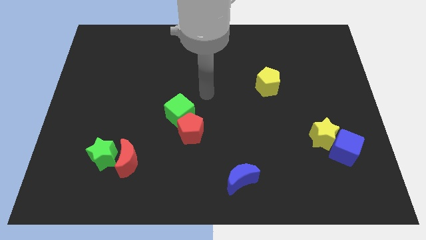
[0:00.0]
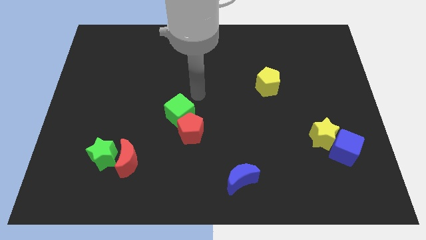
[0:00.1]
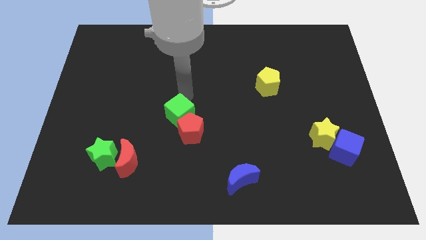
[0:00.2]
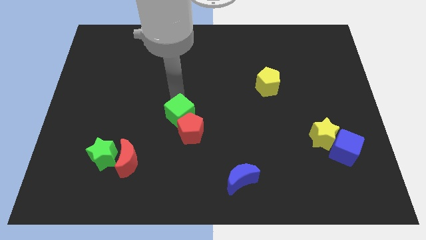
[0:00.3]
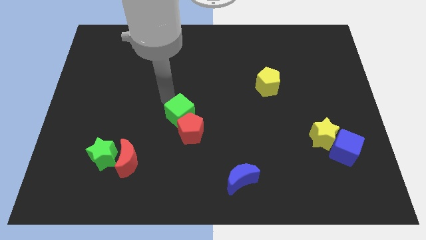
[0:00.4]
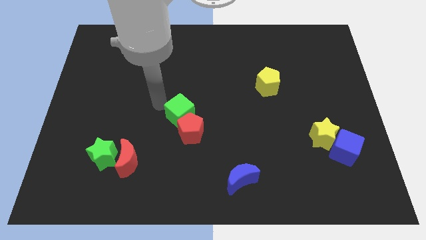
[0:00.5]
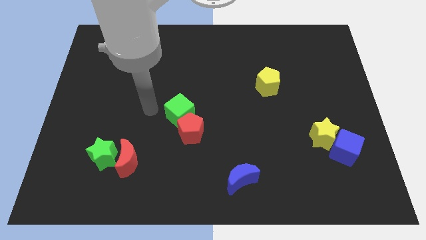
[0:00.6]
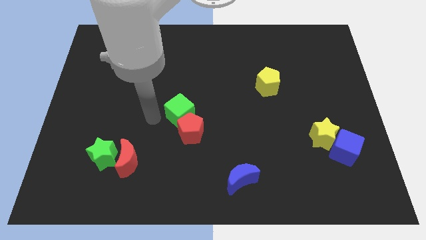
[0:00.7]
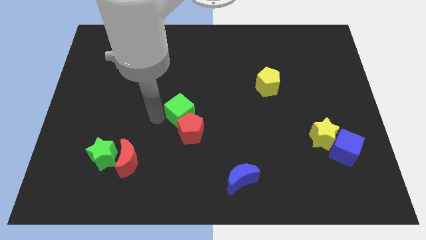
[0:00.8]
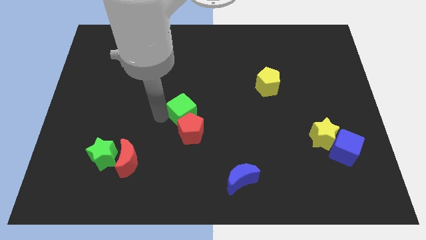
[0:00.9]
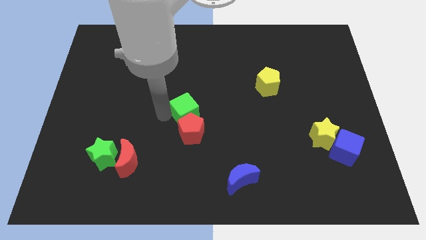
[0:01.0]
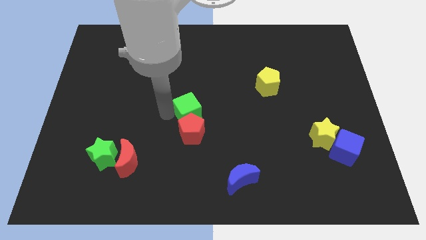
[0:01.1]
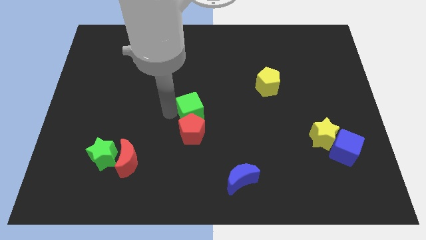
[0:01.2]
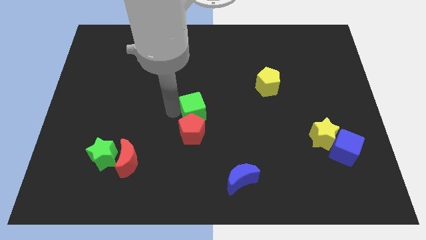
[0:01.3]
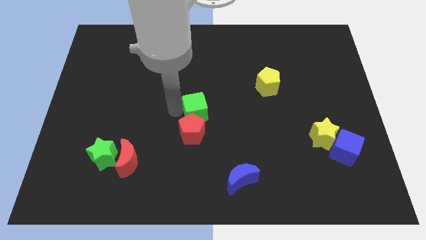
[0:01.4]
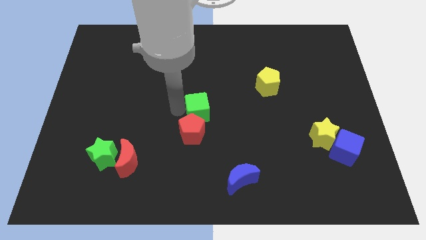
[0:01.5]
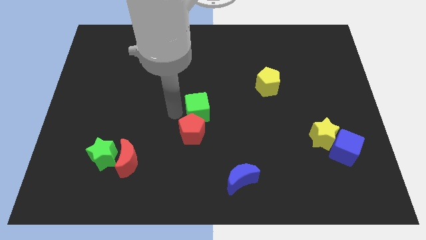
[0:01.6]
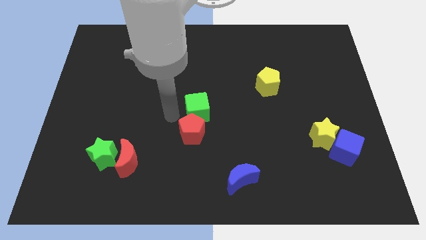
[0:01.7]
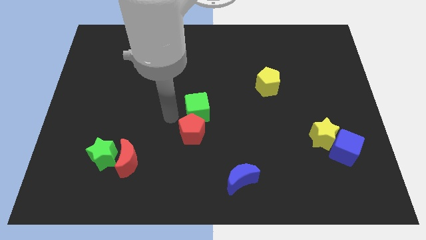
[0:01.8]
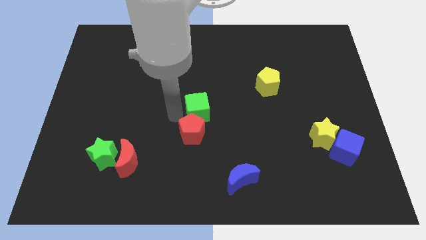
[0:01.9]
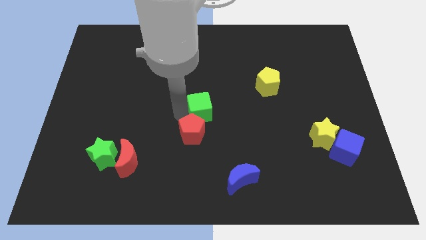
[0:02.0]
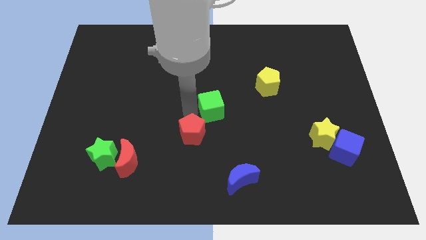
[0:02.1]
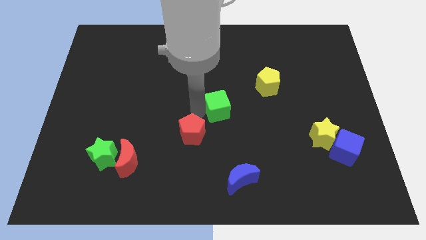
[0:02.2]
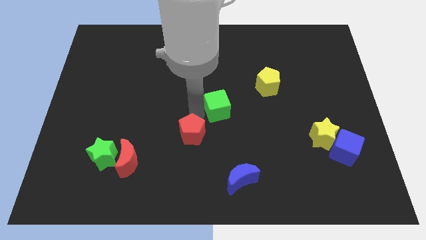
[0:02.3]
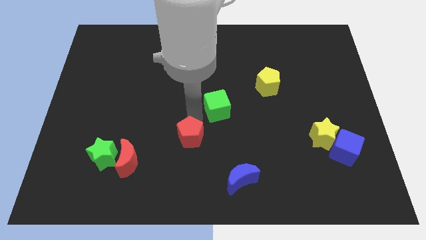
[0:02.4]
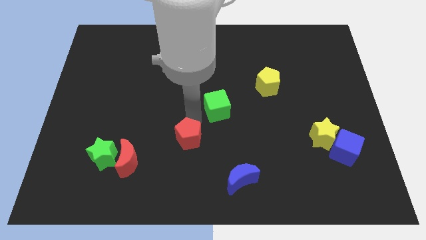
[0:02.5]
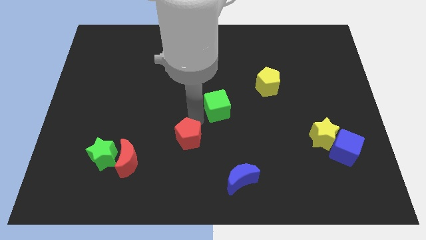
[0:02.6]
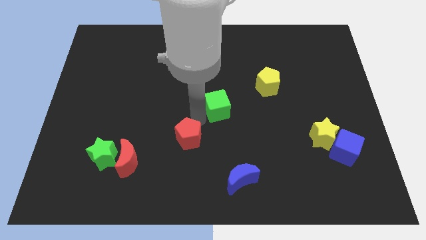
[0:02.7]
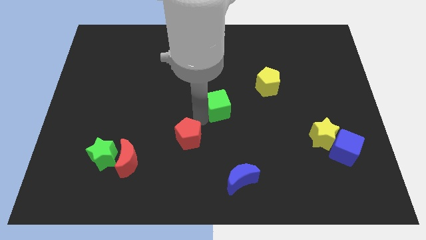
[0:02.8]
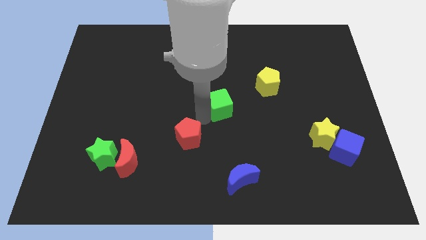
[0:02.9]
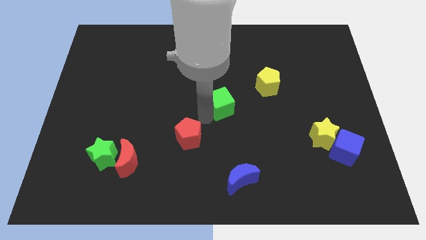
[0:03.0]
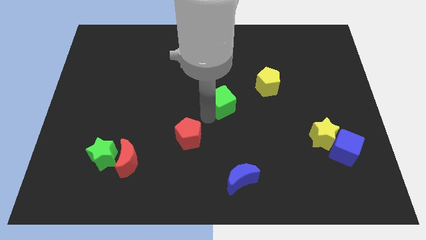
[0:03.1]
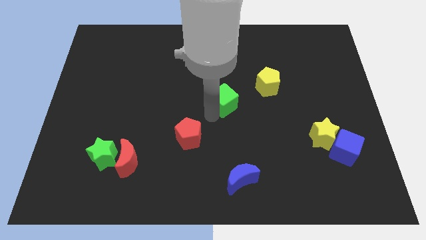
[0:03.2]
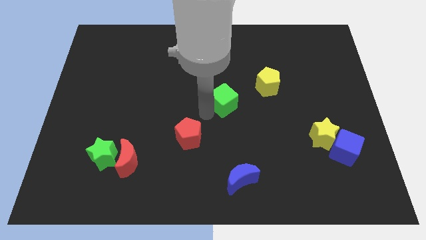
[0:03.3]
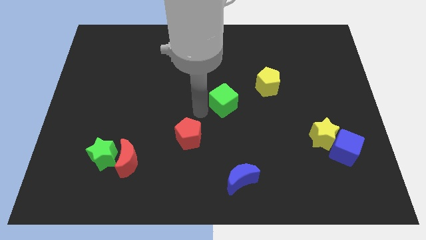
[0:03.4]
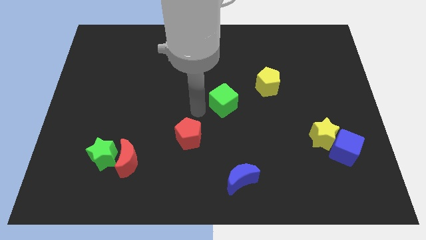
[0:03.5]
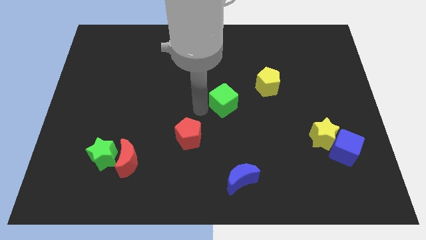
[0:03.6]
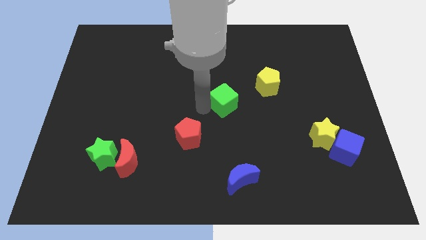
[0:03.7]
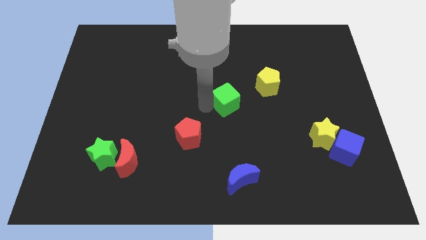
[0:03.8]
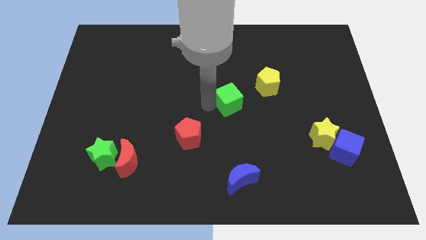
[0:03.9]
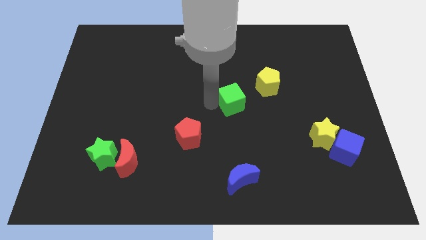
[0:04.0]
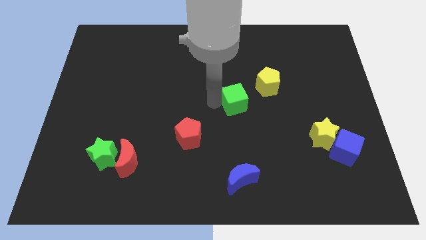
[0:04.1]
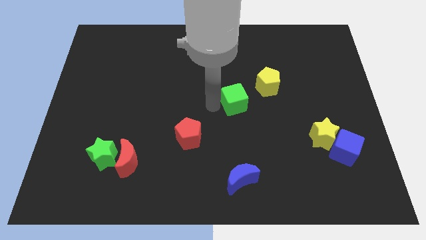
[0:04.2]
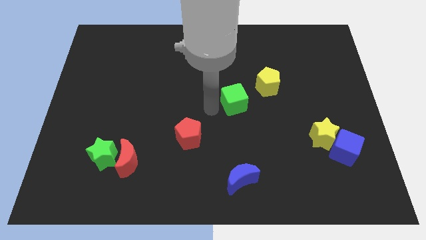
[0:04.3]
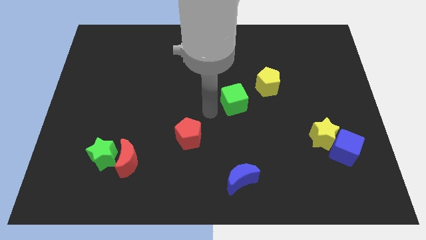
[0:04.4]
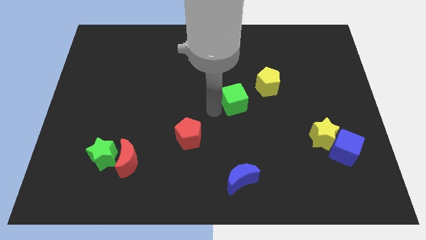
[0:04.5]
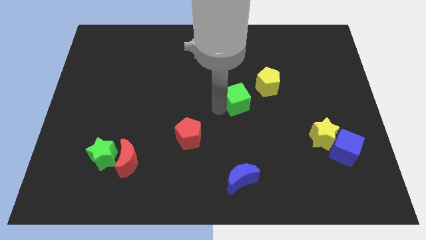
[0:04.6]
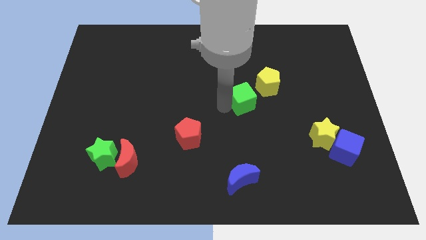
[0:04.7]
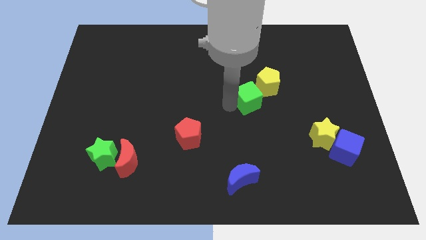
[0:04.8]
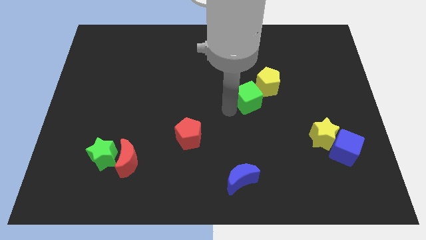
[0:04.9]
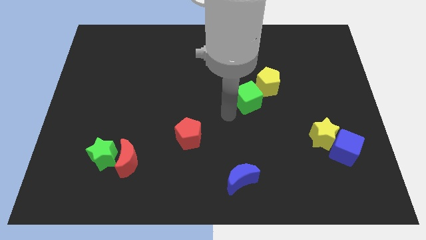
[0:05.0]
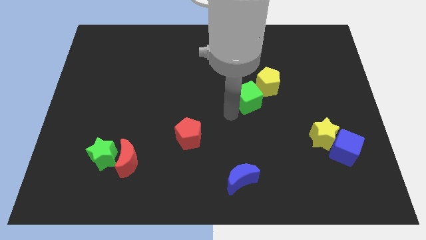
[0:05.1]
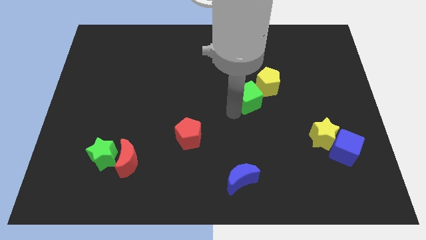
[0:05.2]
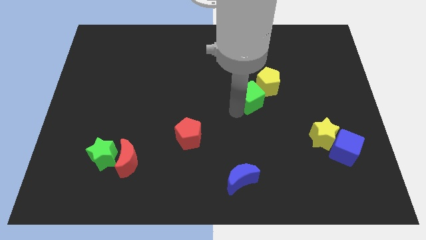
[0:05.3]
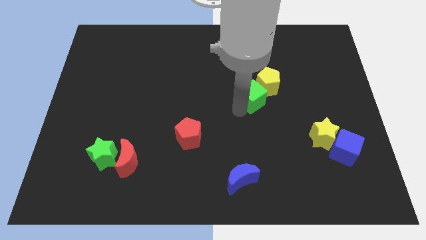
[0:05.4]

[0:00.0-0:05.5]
move the green cube to the yellow pentagon

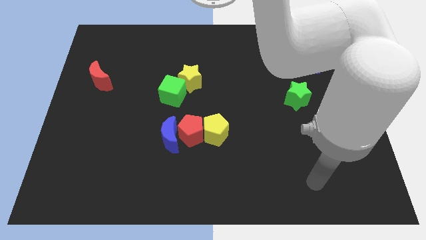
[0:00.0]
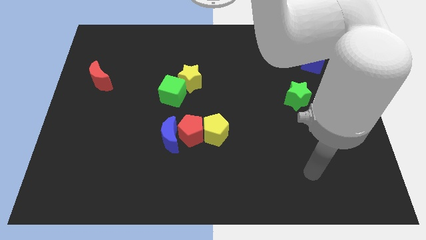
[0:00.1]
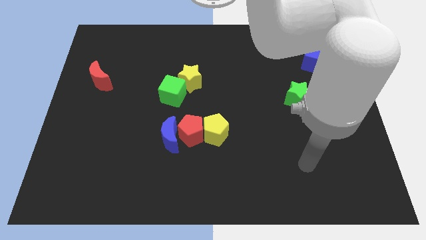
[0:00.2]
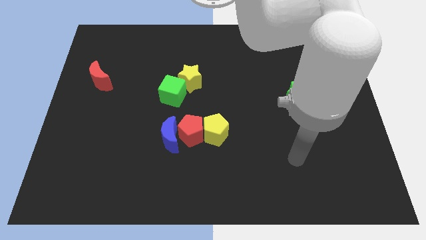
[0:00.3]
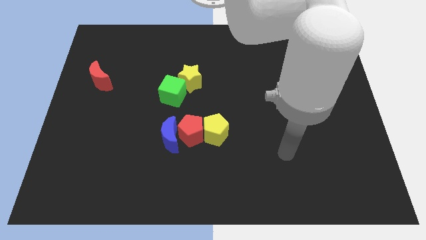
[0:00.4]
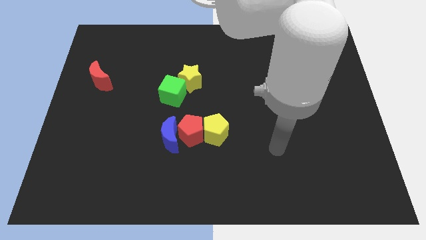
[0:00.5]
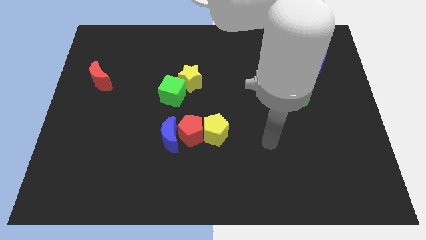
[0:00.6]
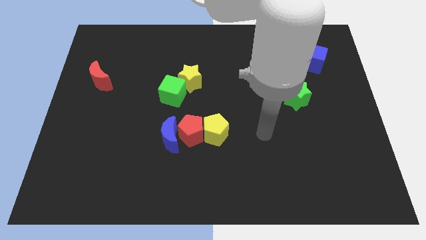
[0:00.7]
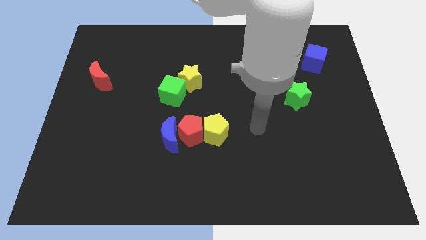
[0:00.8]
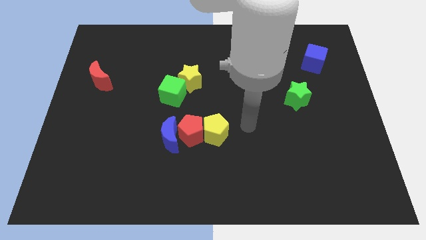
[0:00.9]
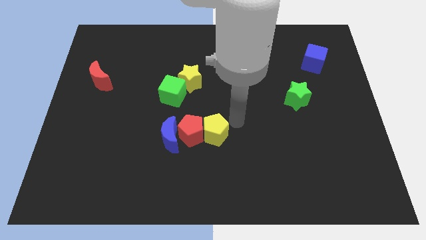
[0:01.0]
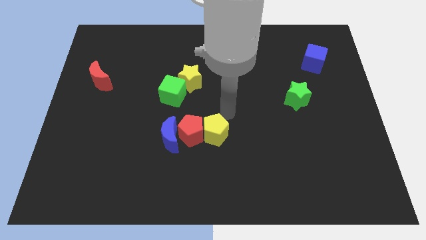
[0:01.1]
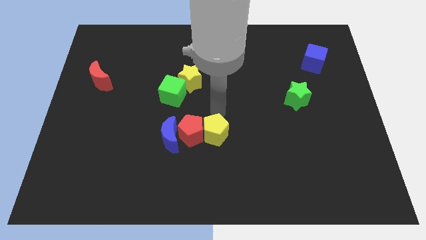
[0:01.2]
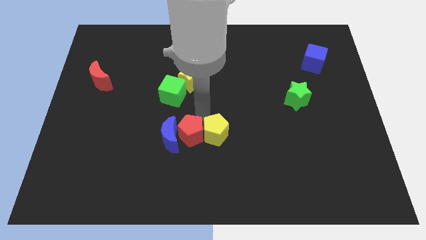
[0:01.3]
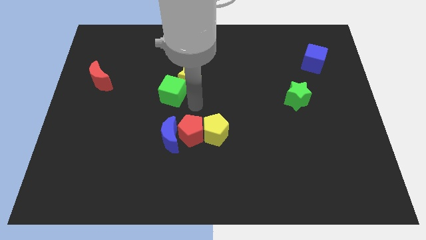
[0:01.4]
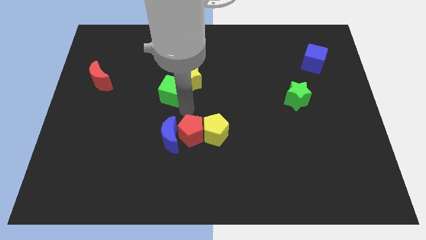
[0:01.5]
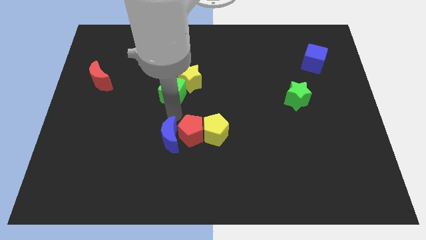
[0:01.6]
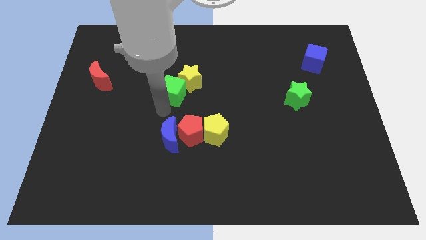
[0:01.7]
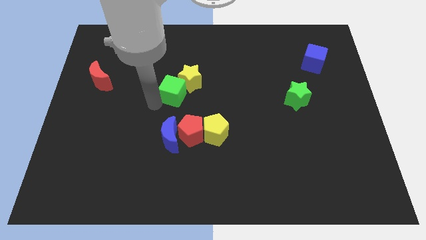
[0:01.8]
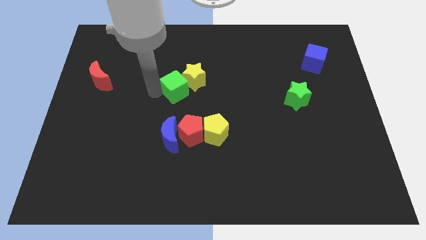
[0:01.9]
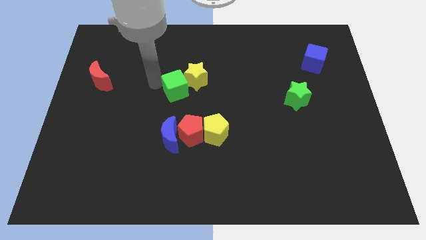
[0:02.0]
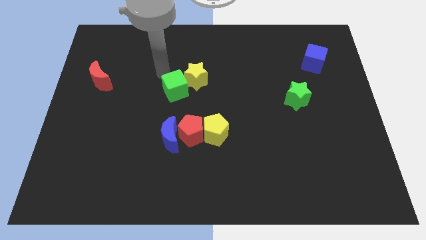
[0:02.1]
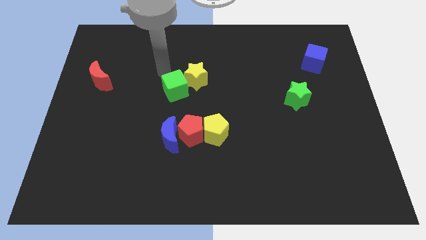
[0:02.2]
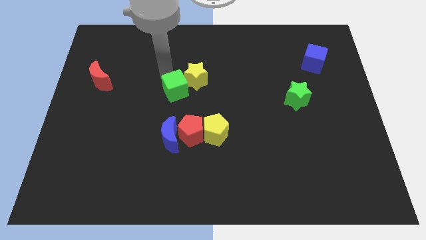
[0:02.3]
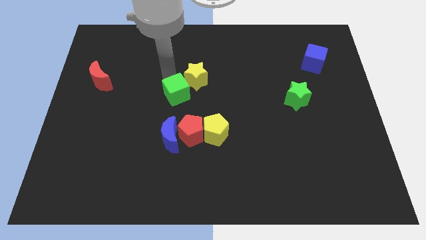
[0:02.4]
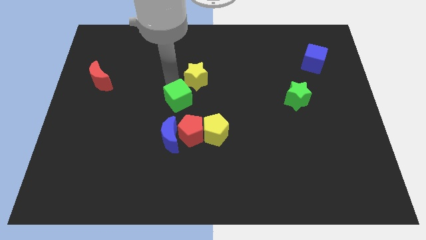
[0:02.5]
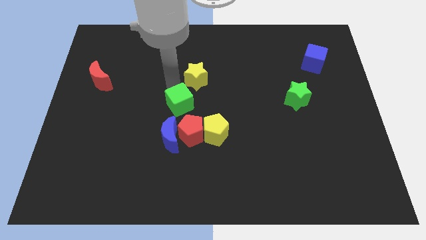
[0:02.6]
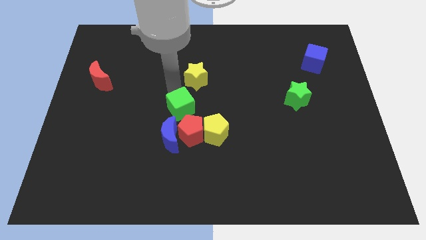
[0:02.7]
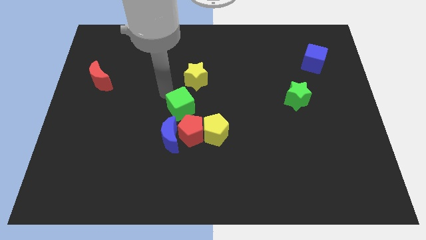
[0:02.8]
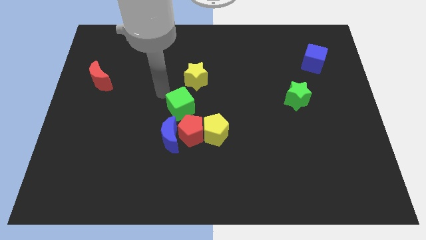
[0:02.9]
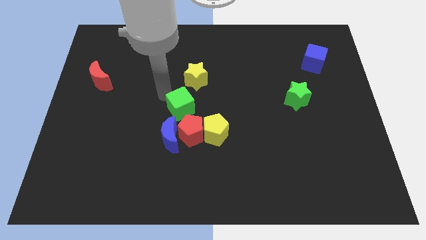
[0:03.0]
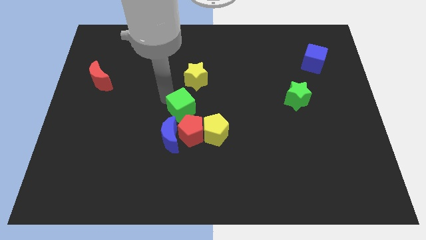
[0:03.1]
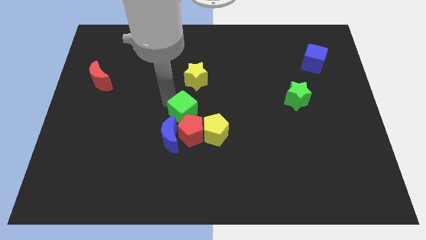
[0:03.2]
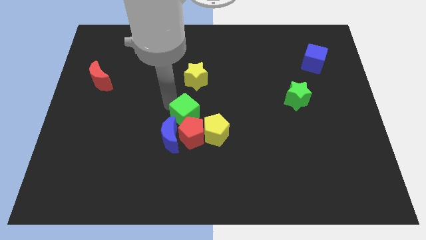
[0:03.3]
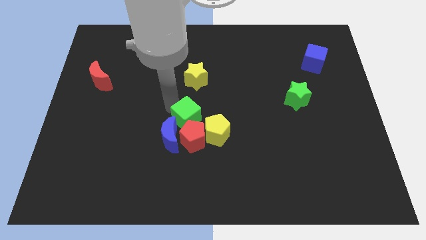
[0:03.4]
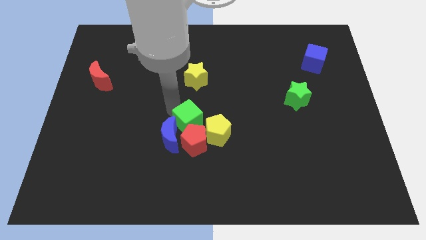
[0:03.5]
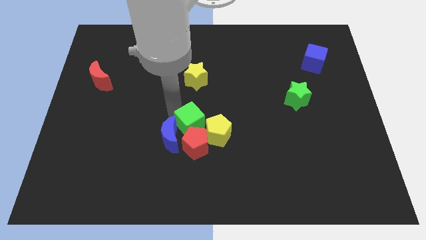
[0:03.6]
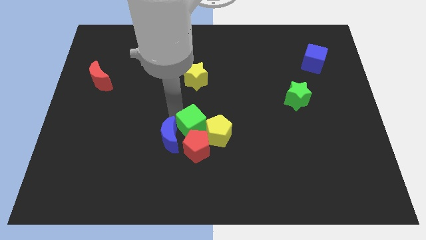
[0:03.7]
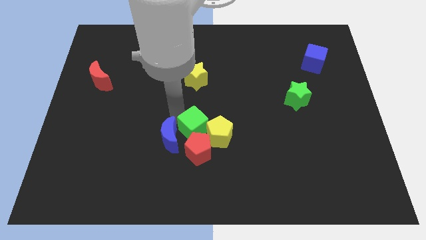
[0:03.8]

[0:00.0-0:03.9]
move the green cube close to the yellow pentagon
